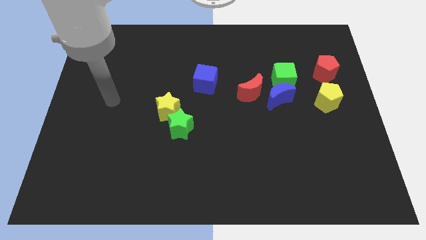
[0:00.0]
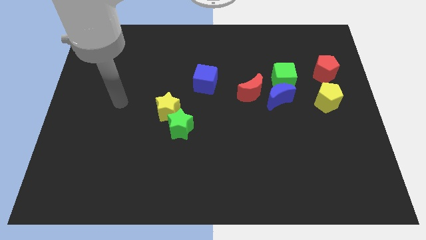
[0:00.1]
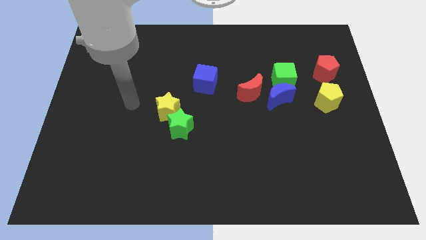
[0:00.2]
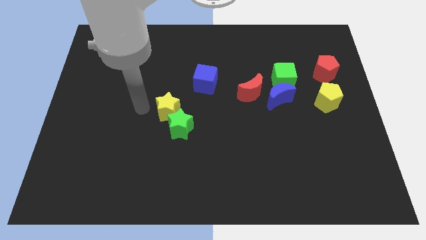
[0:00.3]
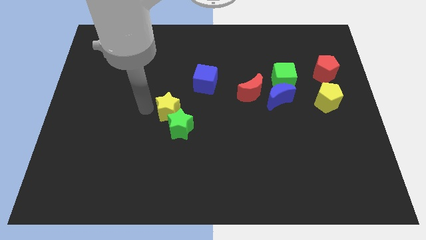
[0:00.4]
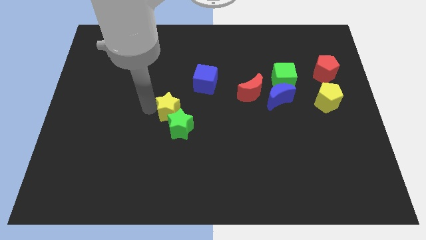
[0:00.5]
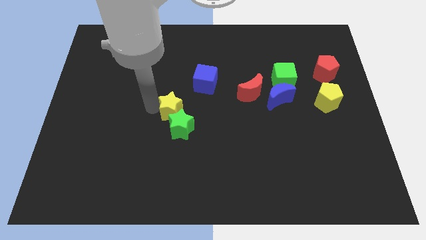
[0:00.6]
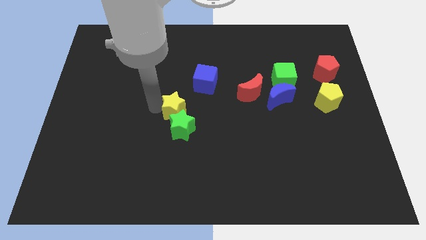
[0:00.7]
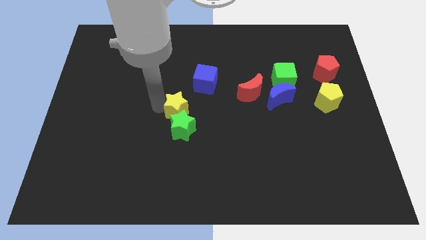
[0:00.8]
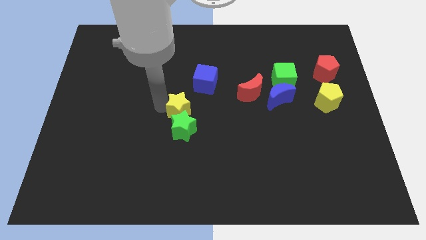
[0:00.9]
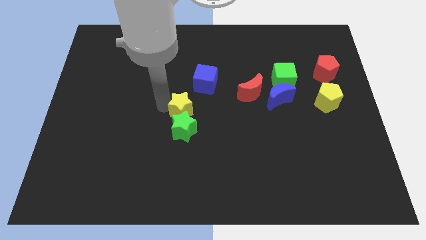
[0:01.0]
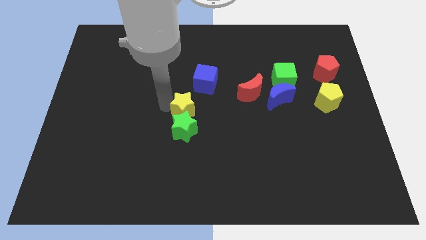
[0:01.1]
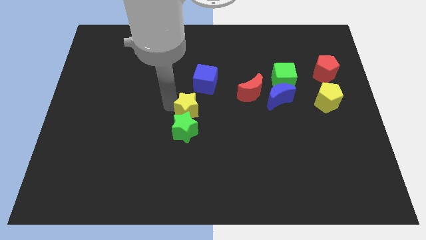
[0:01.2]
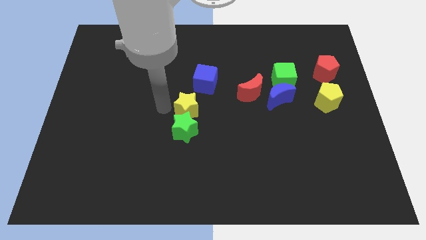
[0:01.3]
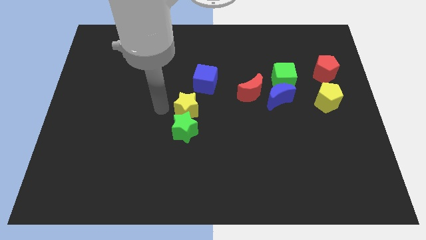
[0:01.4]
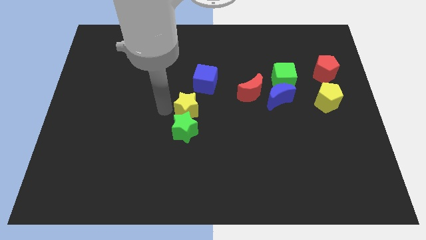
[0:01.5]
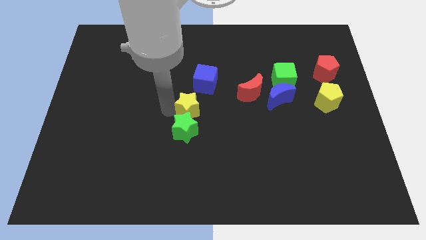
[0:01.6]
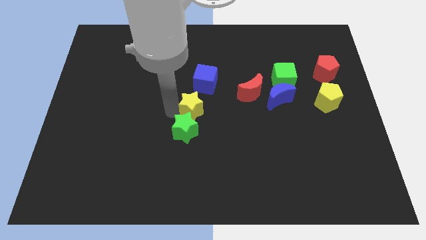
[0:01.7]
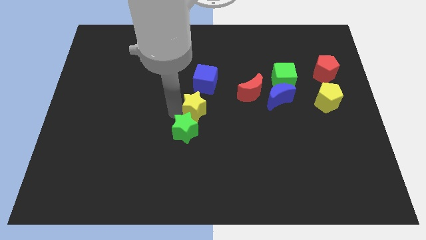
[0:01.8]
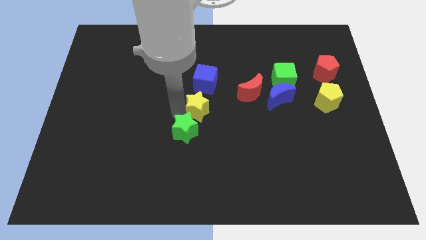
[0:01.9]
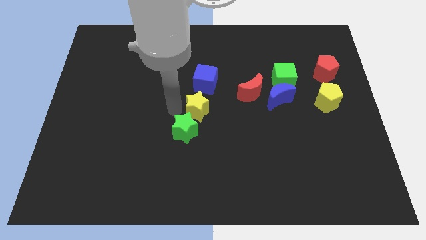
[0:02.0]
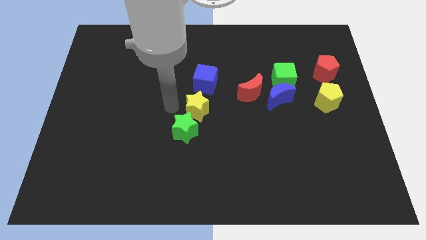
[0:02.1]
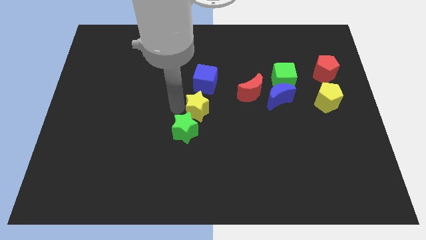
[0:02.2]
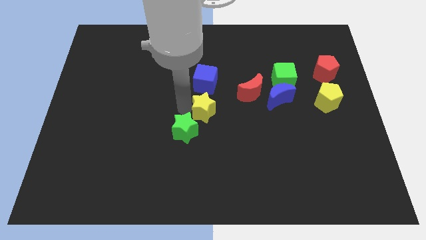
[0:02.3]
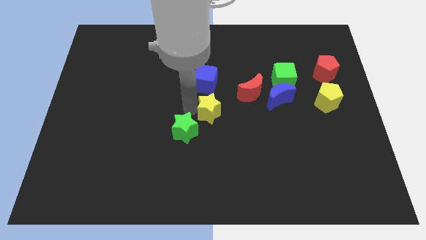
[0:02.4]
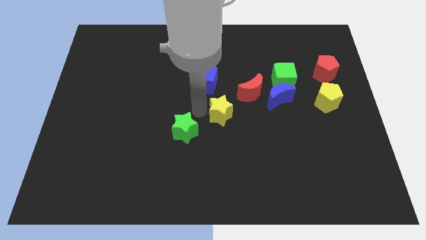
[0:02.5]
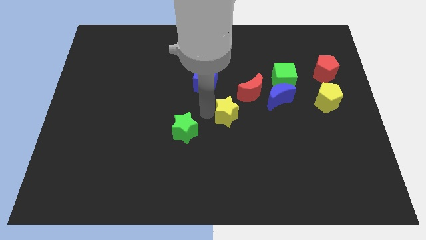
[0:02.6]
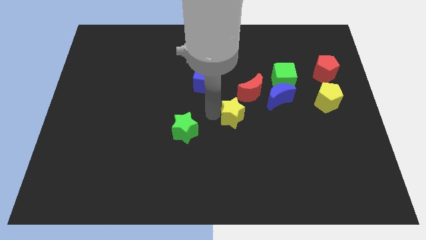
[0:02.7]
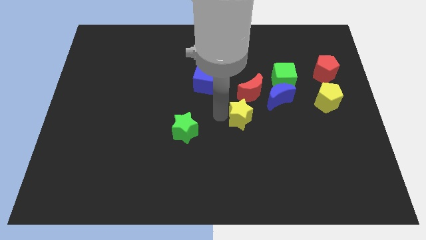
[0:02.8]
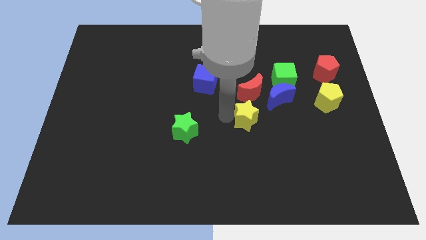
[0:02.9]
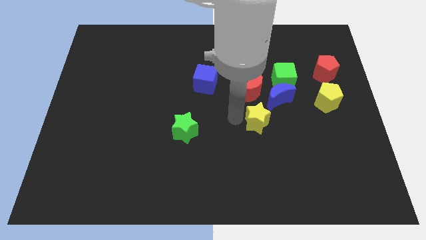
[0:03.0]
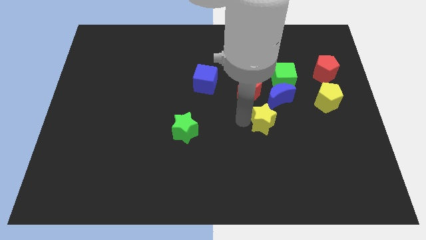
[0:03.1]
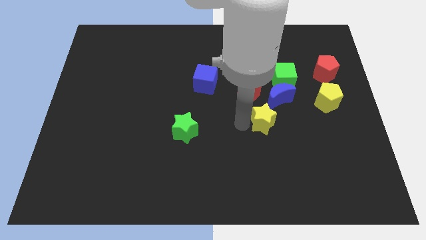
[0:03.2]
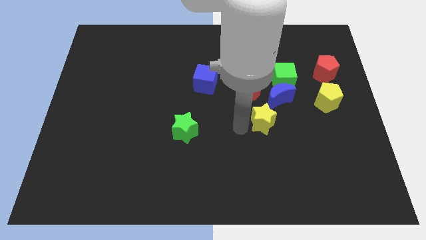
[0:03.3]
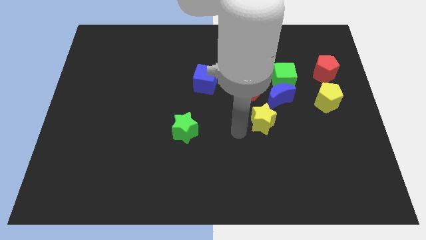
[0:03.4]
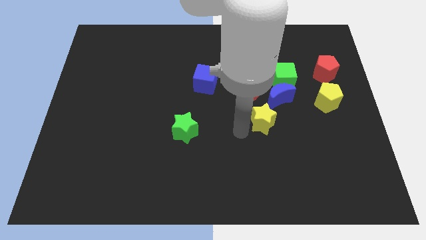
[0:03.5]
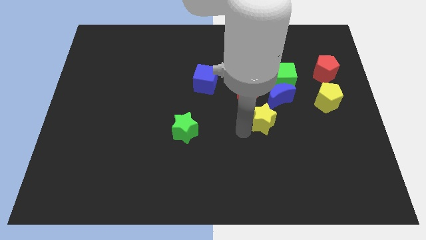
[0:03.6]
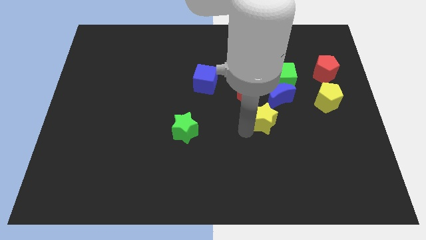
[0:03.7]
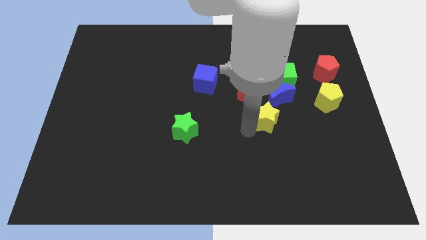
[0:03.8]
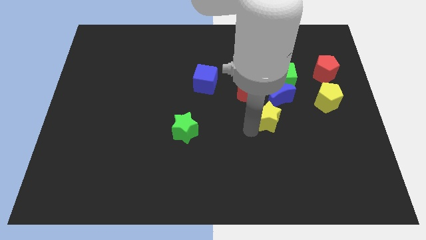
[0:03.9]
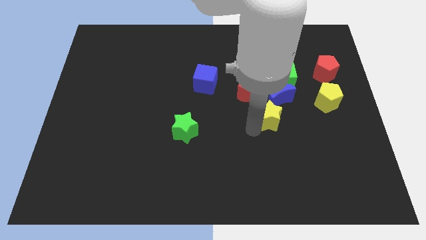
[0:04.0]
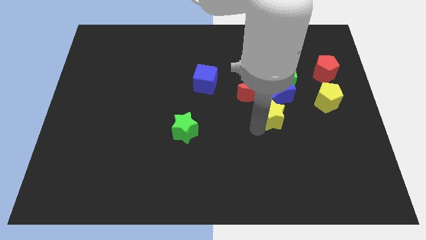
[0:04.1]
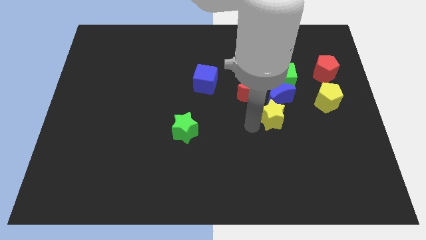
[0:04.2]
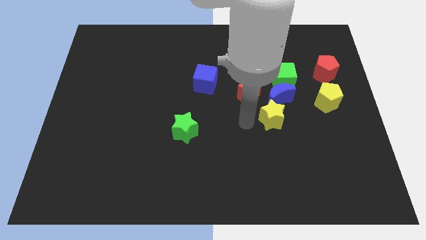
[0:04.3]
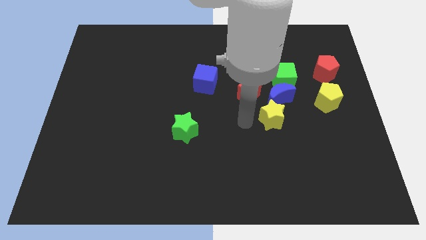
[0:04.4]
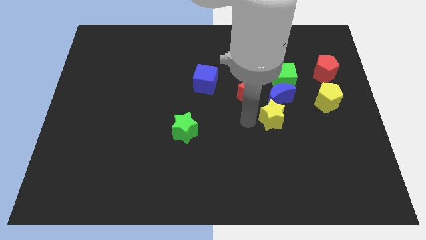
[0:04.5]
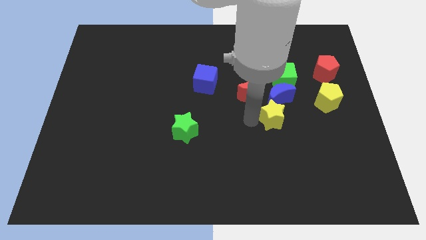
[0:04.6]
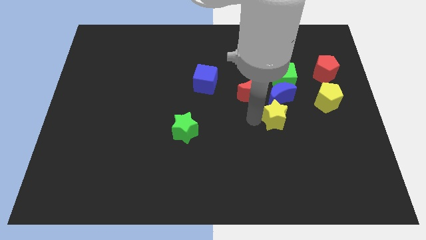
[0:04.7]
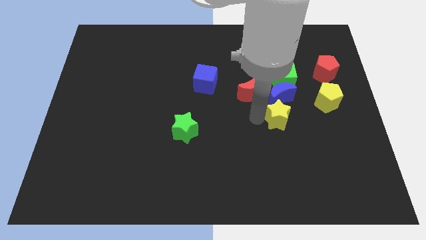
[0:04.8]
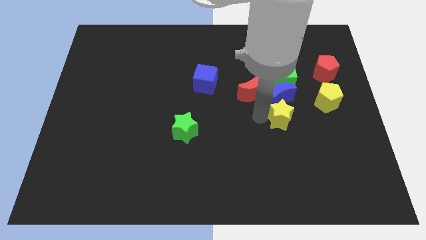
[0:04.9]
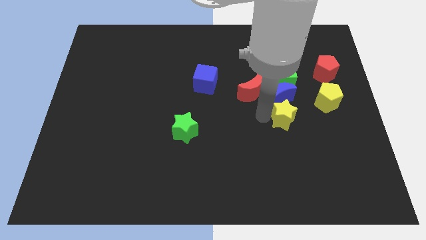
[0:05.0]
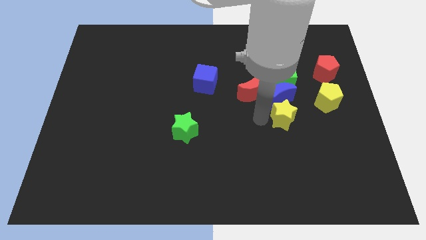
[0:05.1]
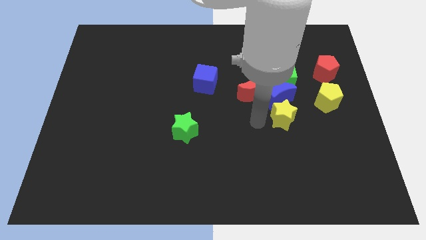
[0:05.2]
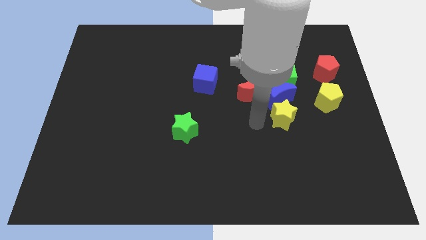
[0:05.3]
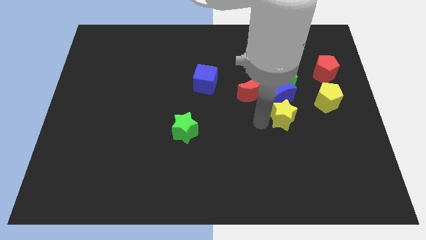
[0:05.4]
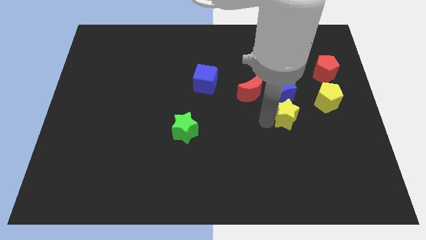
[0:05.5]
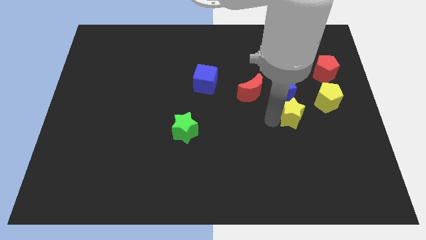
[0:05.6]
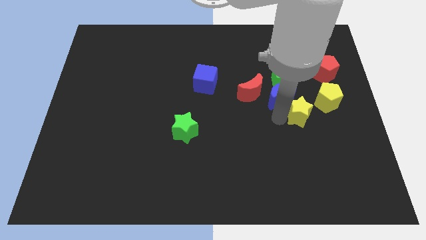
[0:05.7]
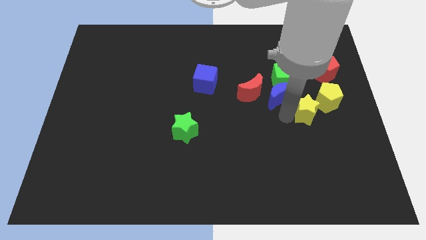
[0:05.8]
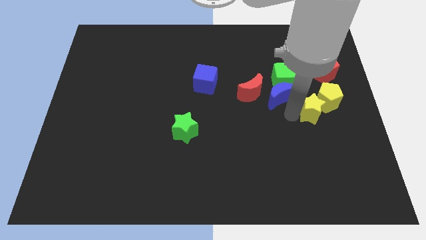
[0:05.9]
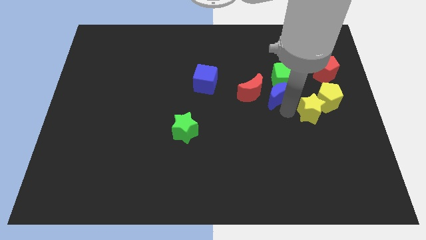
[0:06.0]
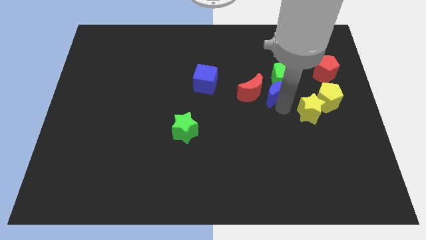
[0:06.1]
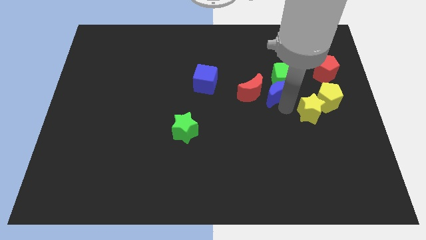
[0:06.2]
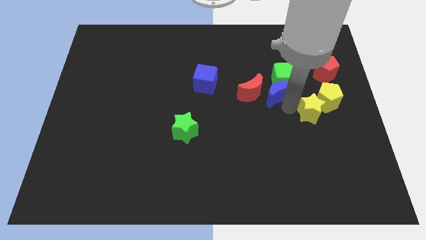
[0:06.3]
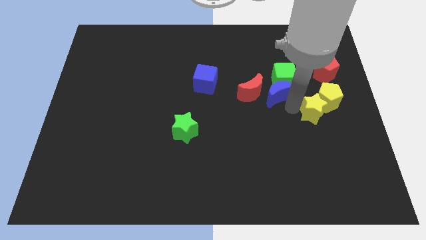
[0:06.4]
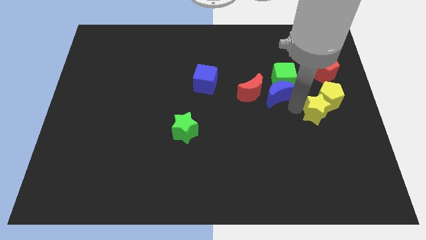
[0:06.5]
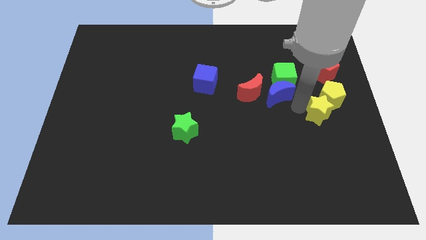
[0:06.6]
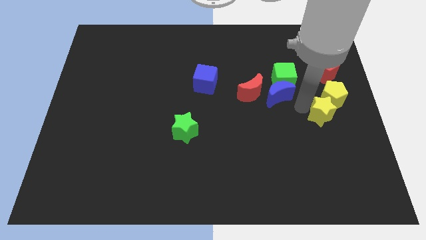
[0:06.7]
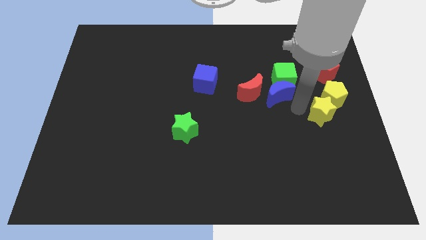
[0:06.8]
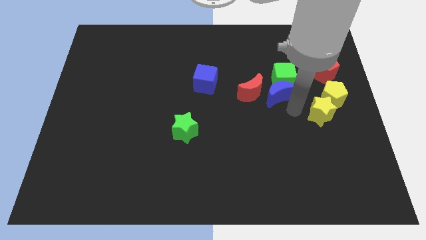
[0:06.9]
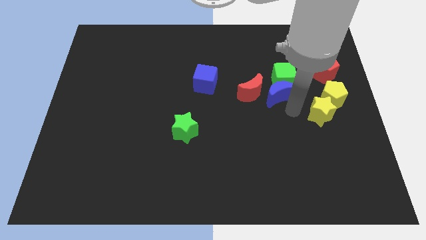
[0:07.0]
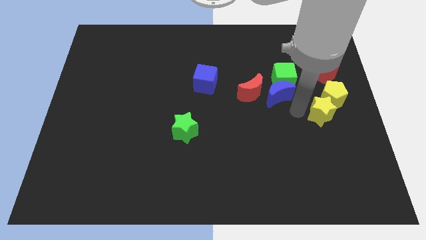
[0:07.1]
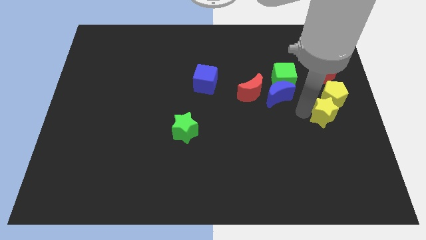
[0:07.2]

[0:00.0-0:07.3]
push the yellow star to the center right
